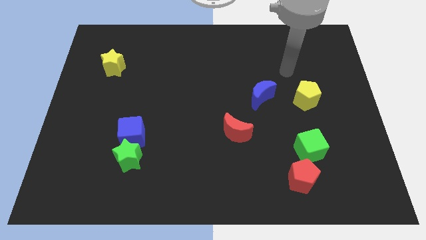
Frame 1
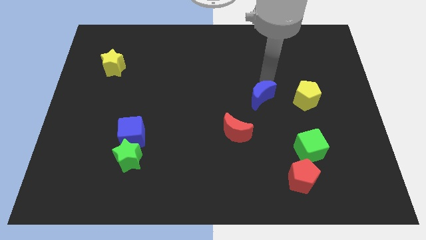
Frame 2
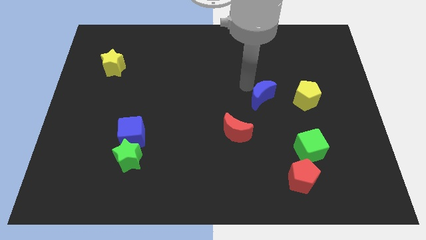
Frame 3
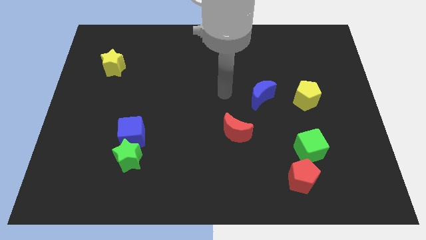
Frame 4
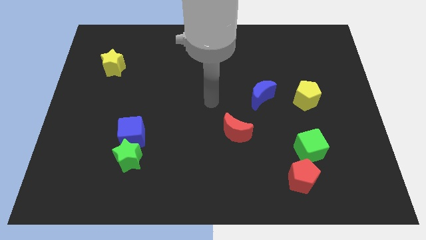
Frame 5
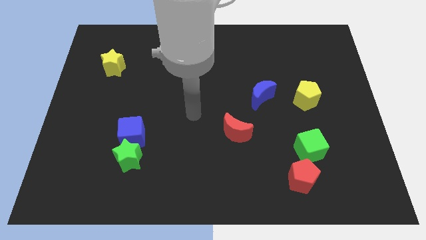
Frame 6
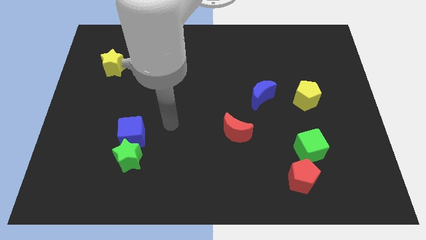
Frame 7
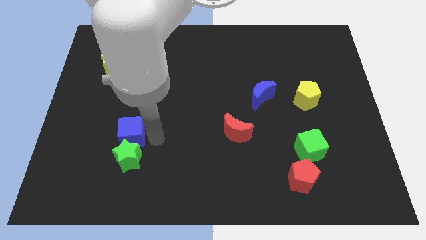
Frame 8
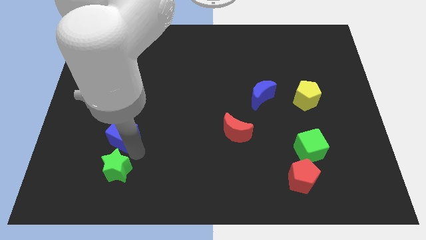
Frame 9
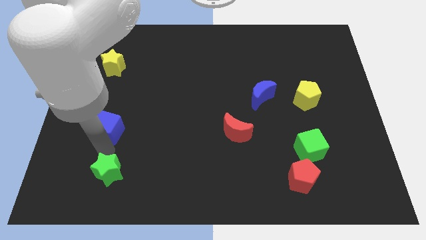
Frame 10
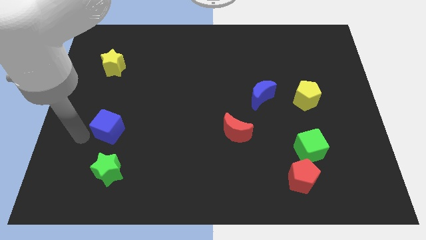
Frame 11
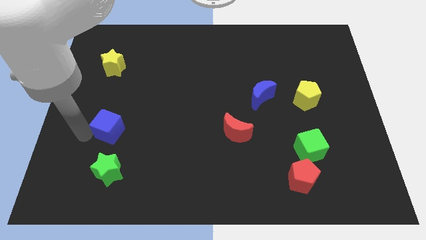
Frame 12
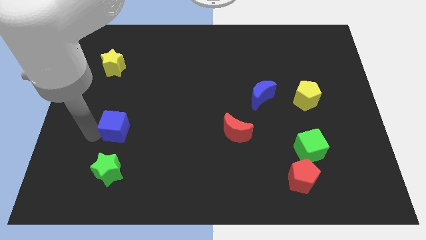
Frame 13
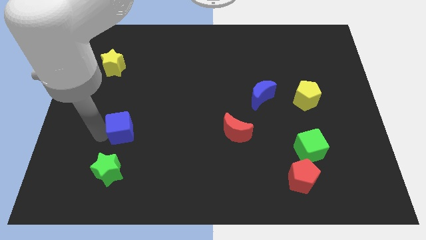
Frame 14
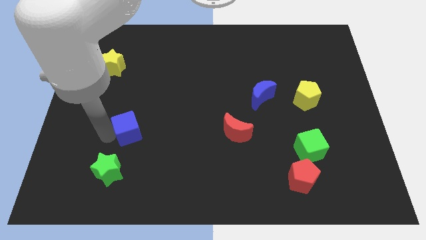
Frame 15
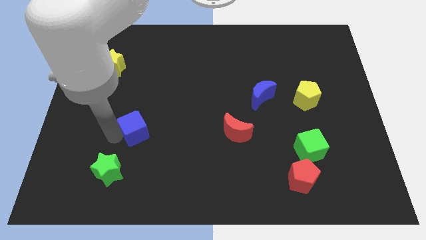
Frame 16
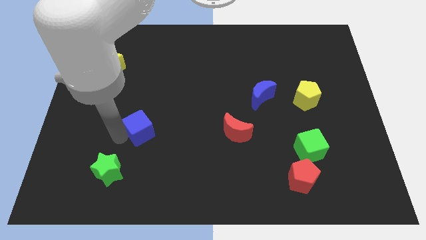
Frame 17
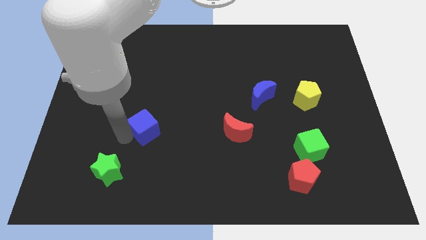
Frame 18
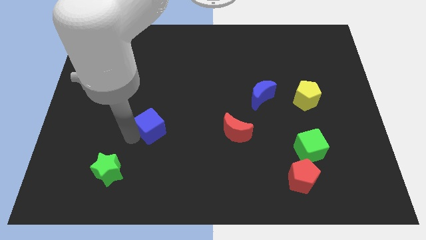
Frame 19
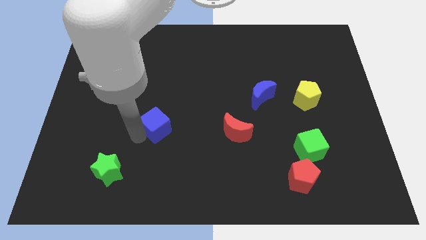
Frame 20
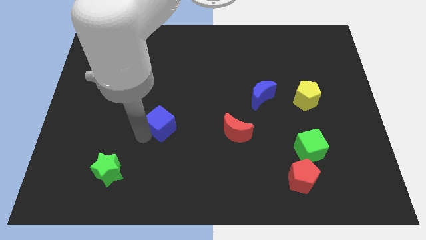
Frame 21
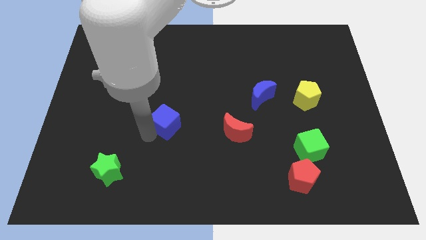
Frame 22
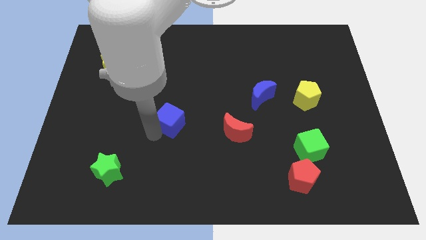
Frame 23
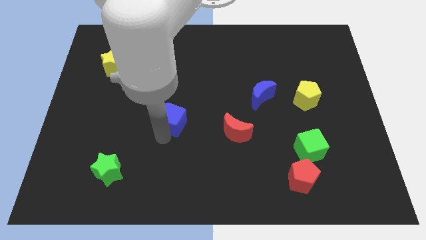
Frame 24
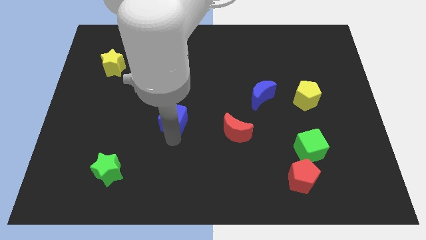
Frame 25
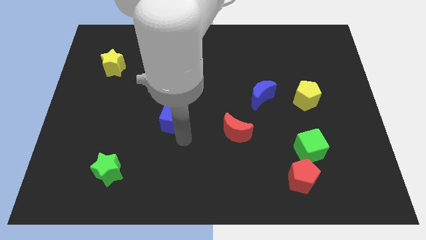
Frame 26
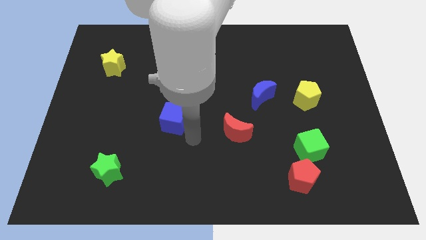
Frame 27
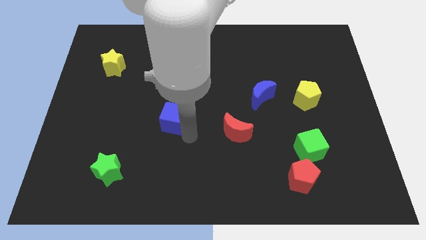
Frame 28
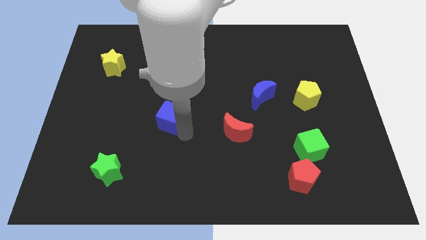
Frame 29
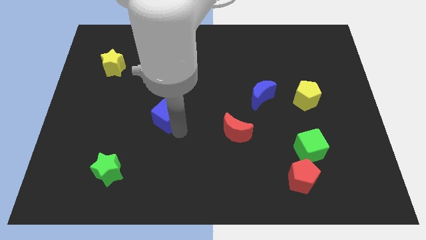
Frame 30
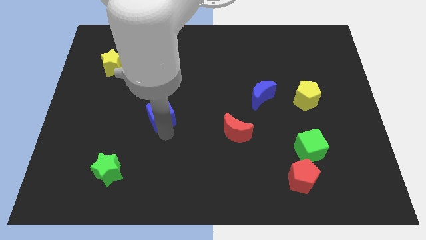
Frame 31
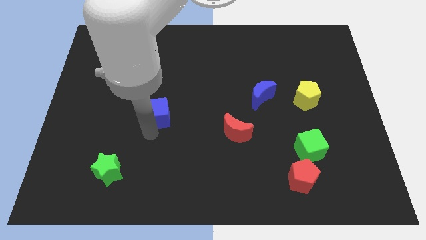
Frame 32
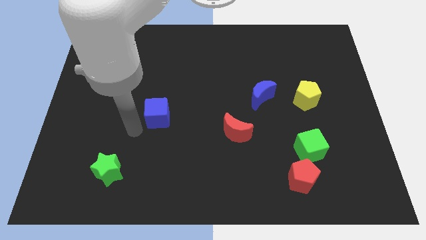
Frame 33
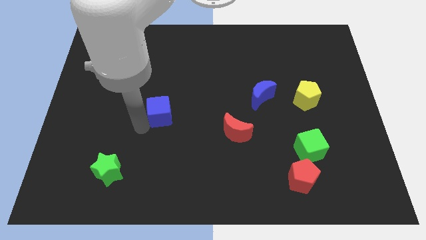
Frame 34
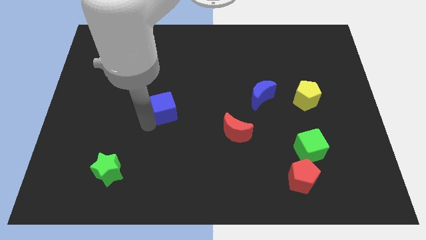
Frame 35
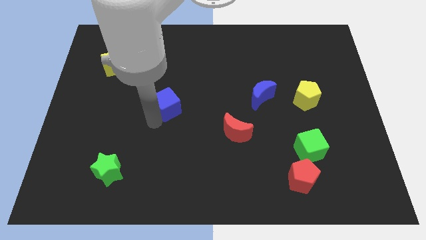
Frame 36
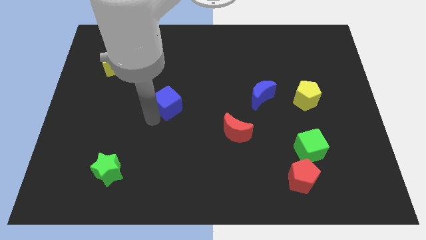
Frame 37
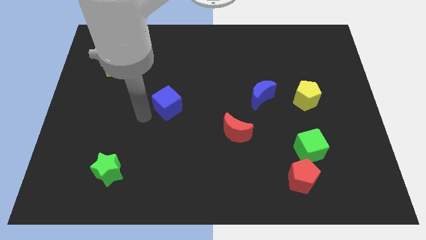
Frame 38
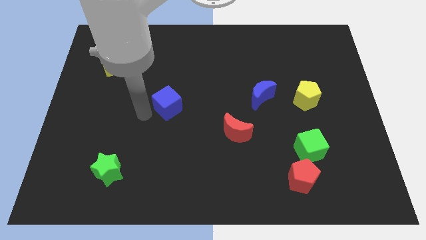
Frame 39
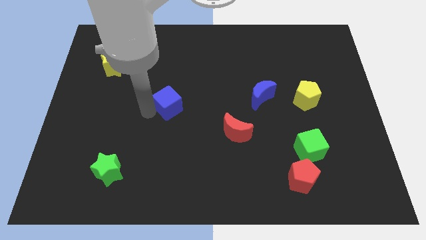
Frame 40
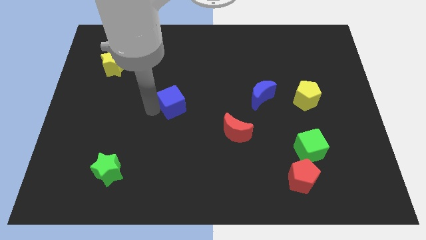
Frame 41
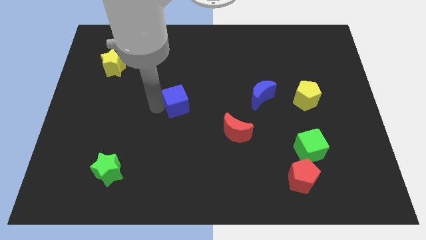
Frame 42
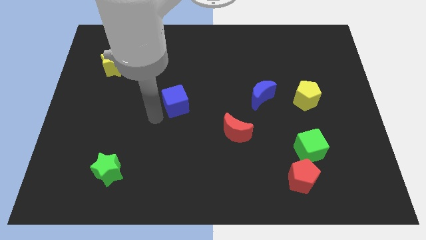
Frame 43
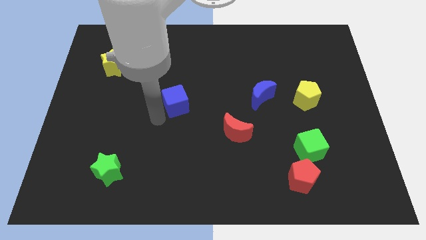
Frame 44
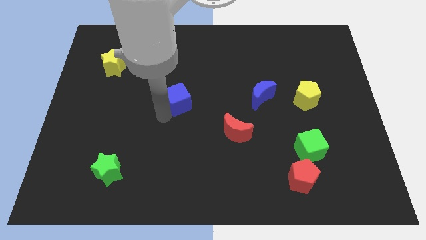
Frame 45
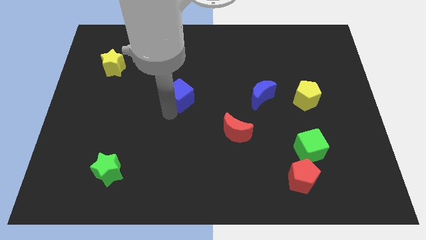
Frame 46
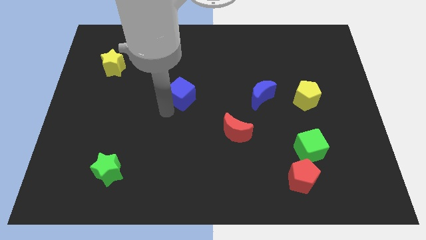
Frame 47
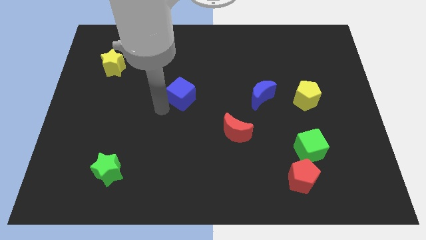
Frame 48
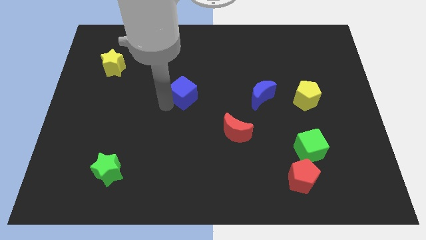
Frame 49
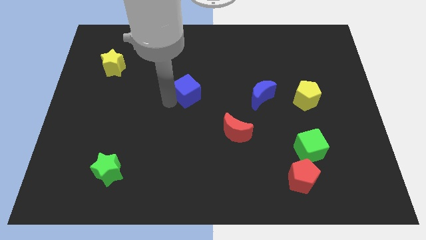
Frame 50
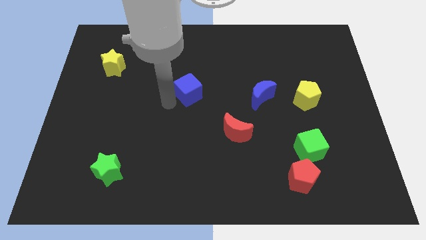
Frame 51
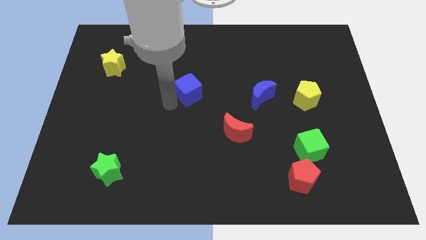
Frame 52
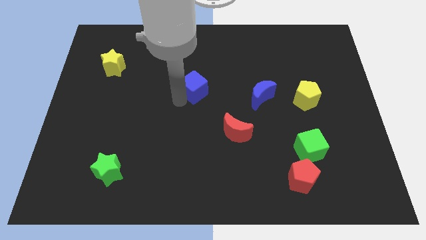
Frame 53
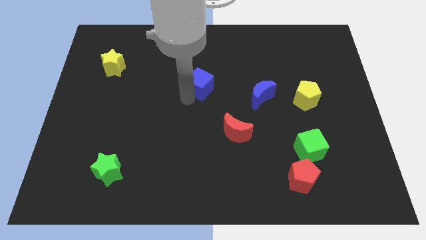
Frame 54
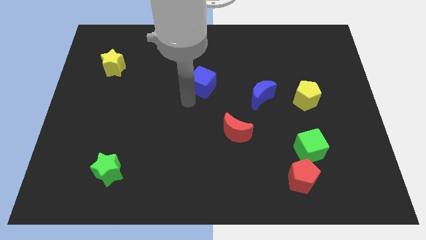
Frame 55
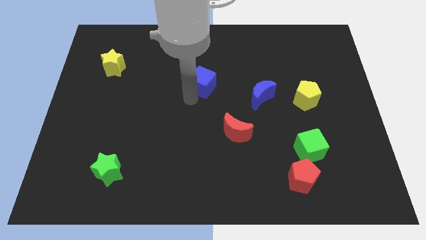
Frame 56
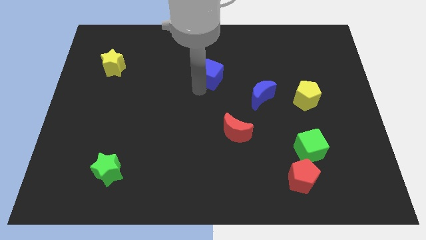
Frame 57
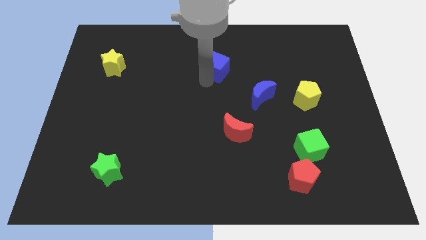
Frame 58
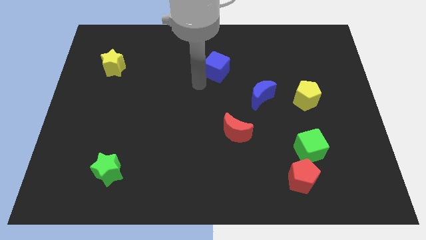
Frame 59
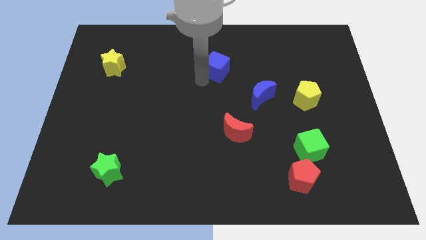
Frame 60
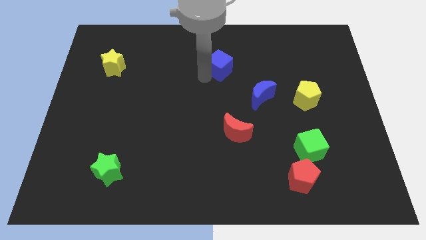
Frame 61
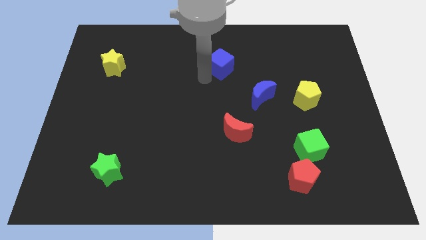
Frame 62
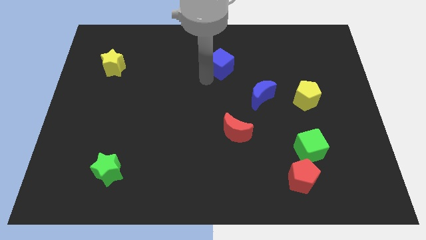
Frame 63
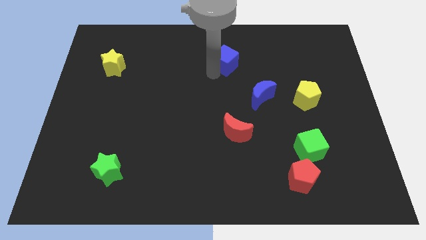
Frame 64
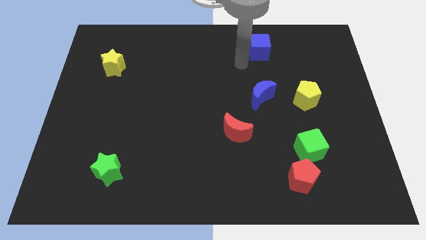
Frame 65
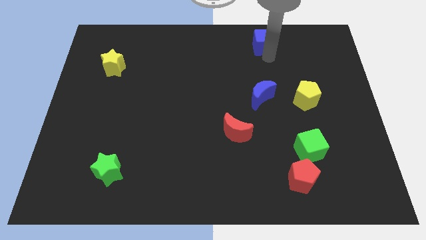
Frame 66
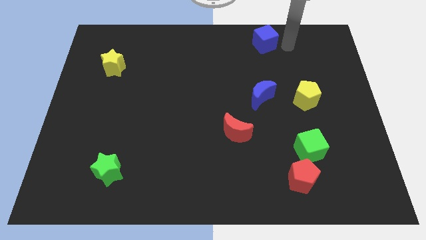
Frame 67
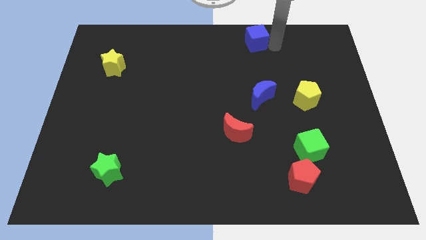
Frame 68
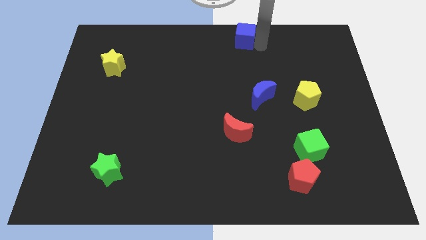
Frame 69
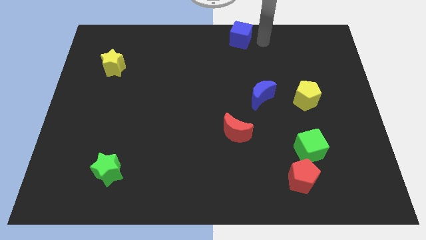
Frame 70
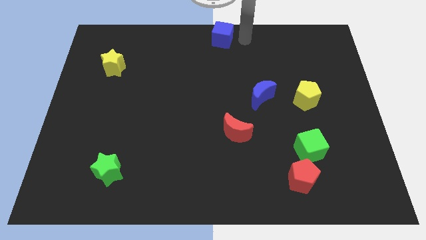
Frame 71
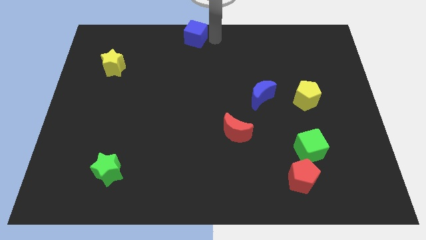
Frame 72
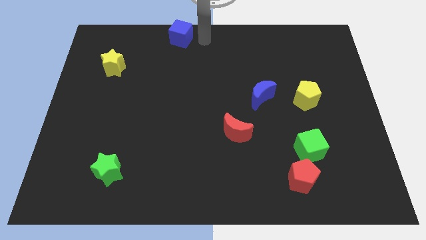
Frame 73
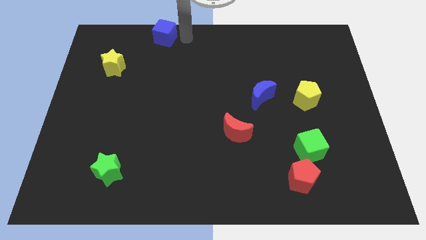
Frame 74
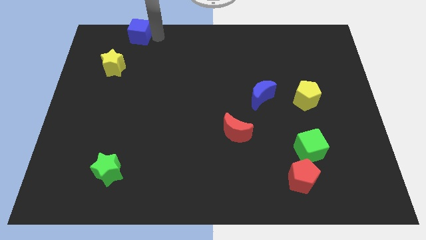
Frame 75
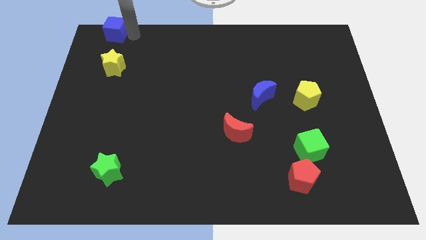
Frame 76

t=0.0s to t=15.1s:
push the blue cube to the top left corner
